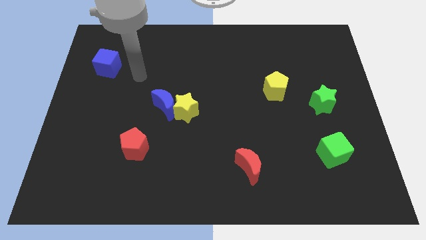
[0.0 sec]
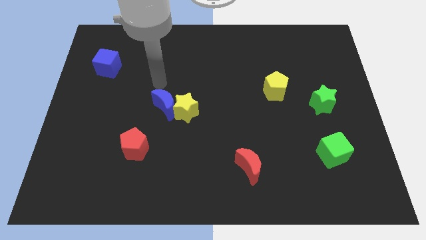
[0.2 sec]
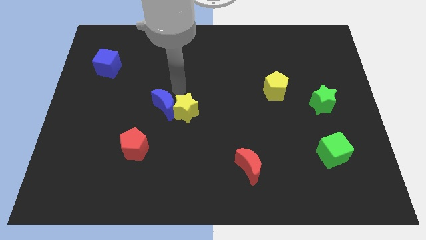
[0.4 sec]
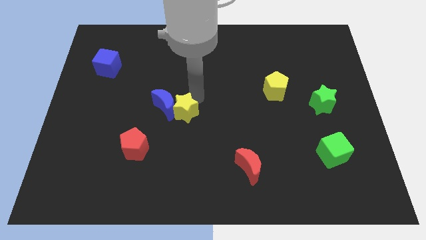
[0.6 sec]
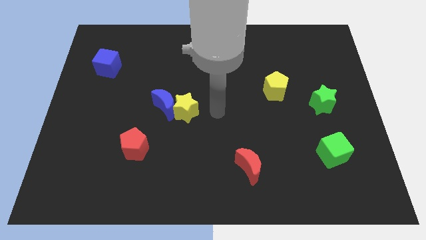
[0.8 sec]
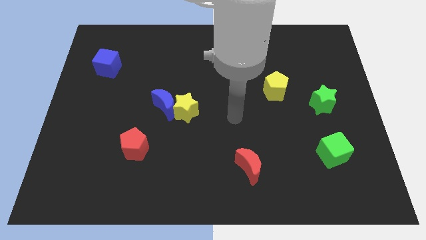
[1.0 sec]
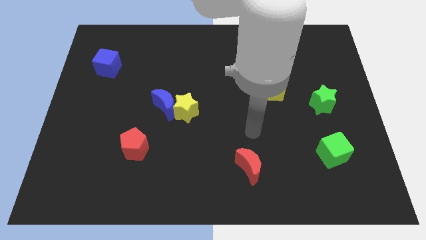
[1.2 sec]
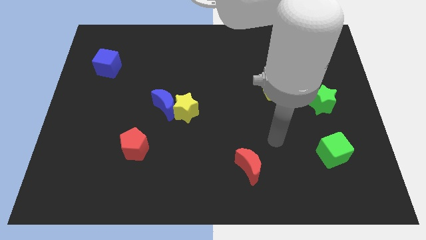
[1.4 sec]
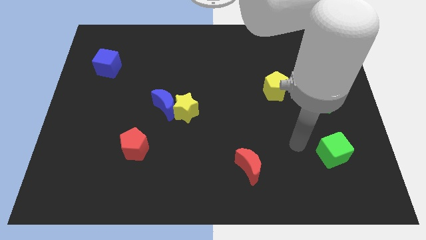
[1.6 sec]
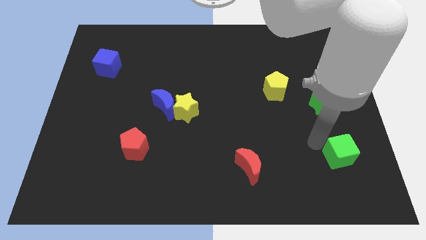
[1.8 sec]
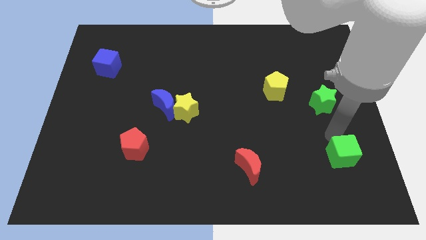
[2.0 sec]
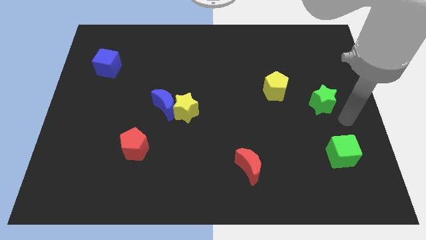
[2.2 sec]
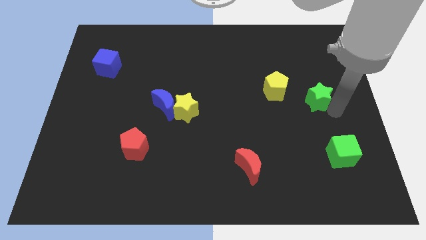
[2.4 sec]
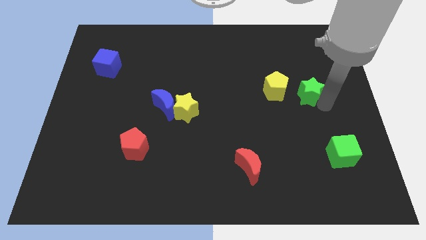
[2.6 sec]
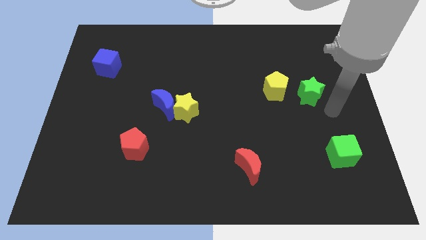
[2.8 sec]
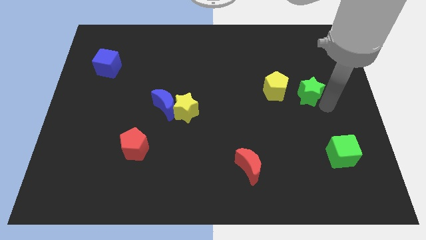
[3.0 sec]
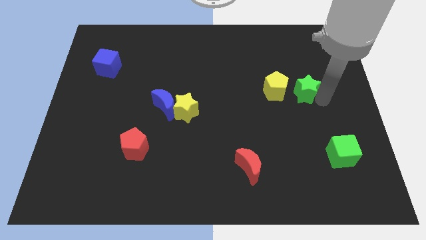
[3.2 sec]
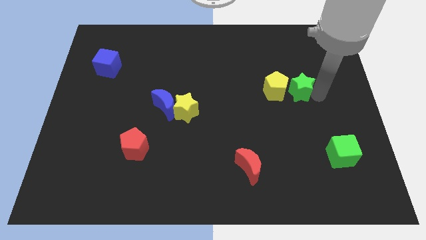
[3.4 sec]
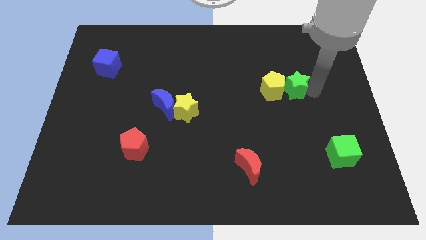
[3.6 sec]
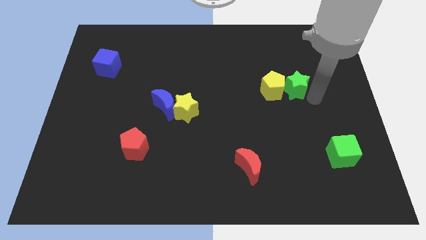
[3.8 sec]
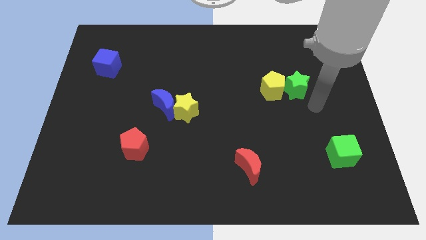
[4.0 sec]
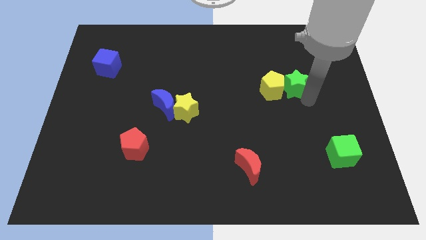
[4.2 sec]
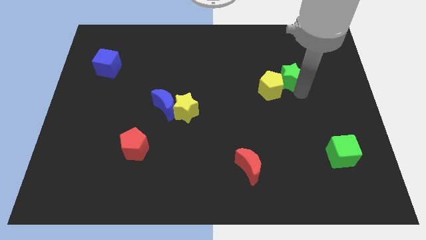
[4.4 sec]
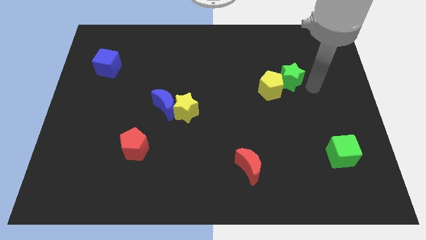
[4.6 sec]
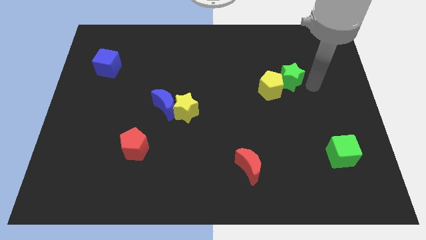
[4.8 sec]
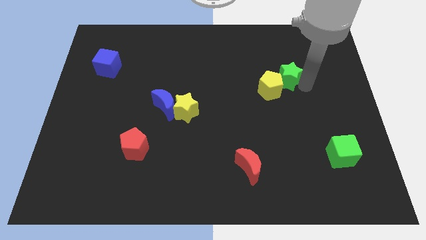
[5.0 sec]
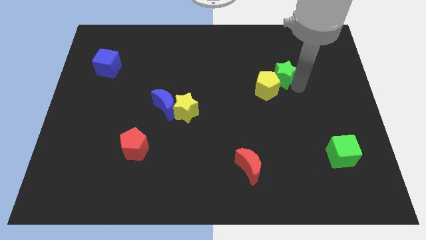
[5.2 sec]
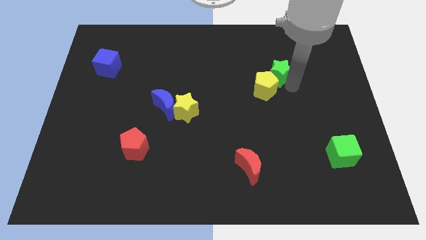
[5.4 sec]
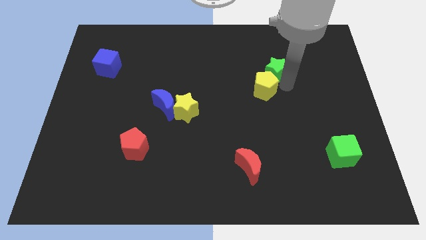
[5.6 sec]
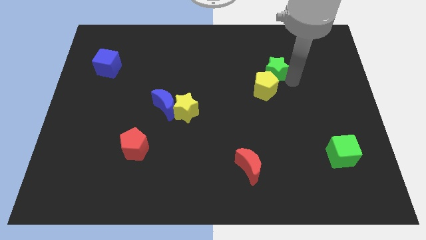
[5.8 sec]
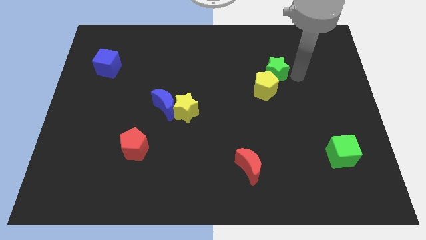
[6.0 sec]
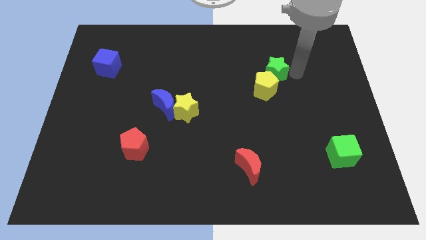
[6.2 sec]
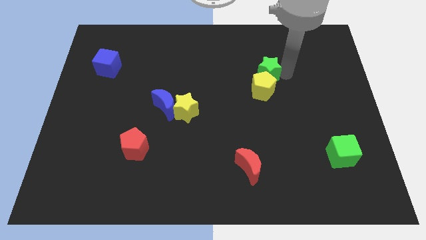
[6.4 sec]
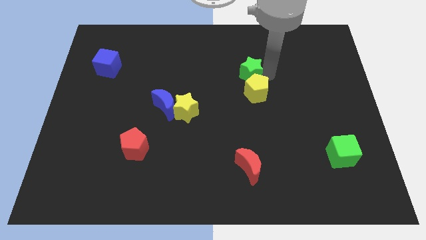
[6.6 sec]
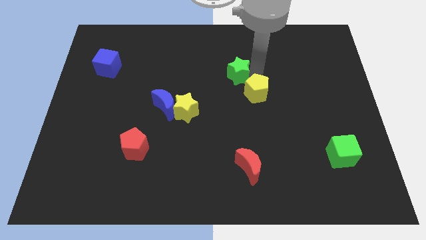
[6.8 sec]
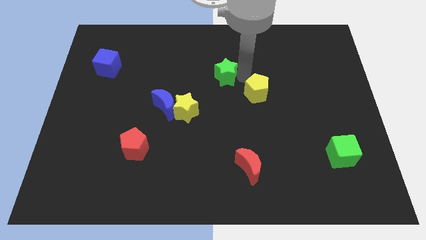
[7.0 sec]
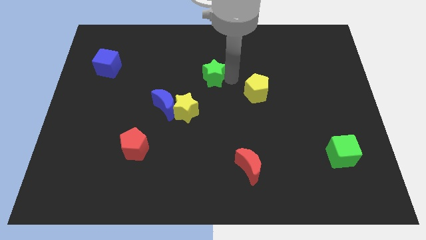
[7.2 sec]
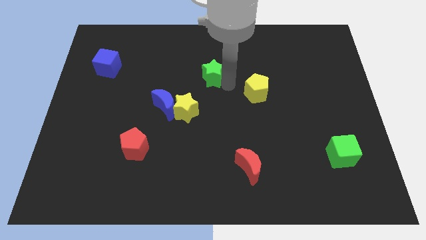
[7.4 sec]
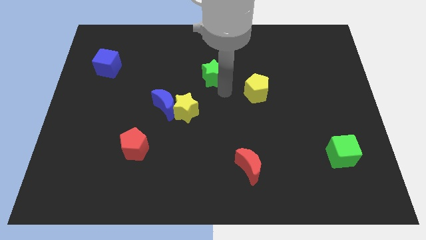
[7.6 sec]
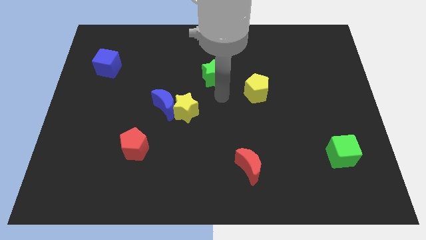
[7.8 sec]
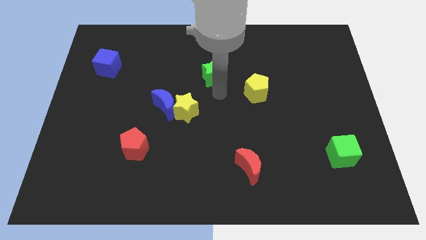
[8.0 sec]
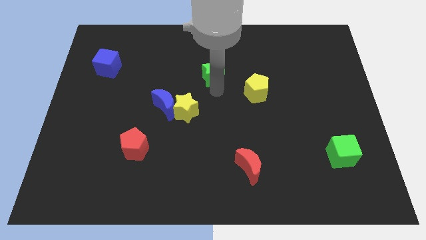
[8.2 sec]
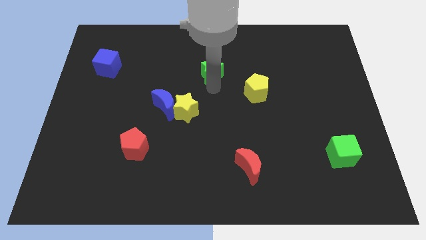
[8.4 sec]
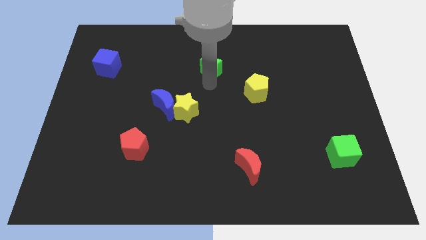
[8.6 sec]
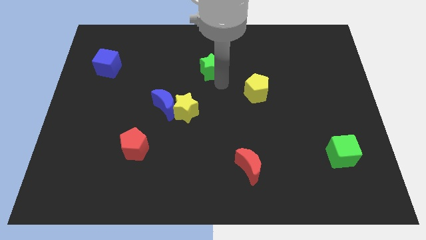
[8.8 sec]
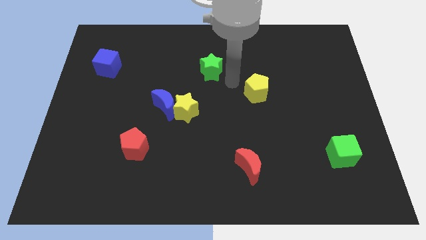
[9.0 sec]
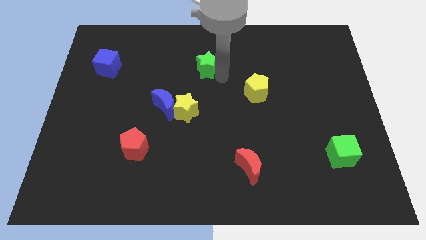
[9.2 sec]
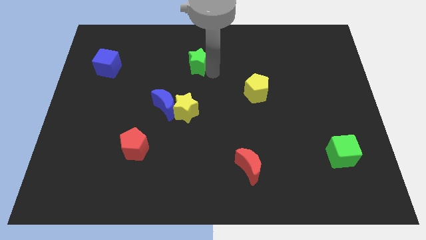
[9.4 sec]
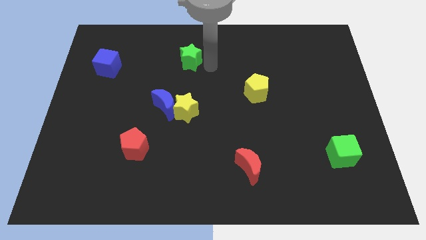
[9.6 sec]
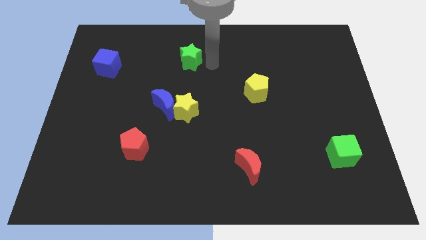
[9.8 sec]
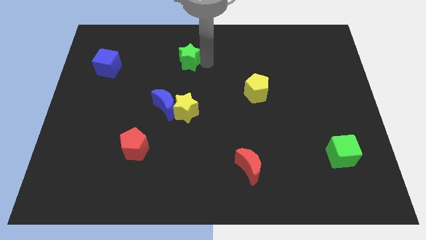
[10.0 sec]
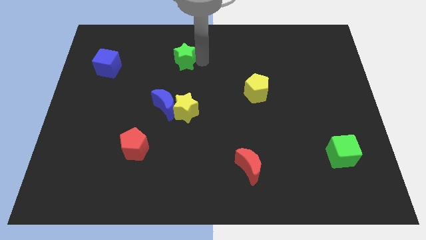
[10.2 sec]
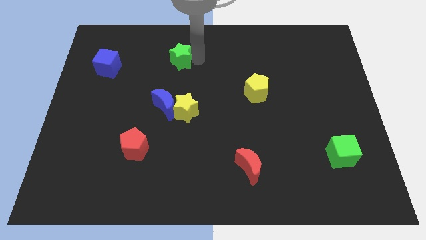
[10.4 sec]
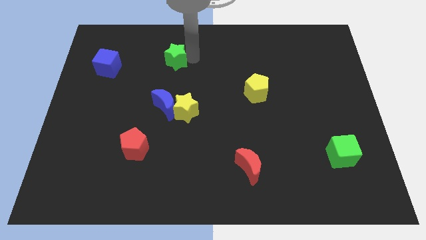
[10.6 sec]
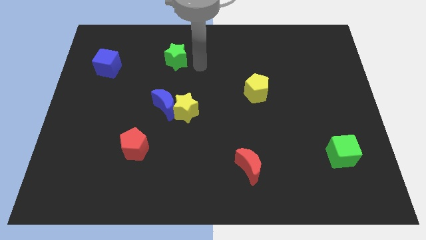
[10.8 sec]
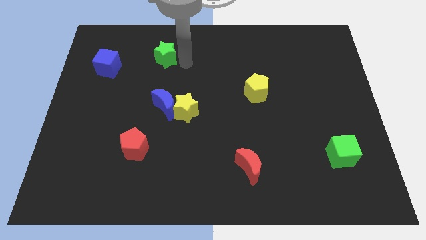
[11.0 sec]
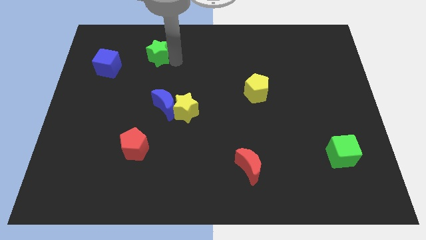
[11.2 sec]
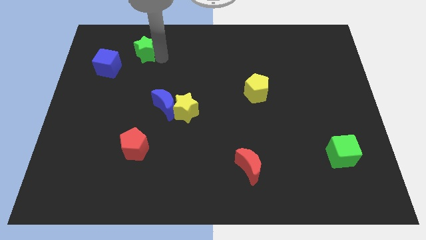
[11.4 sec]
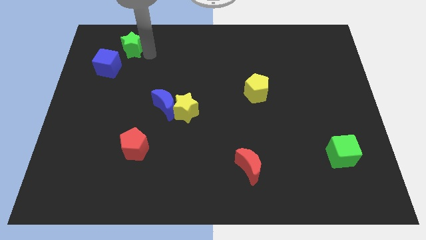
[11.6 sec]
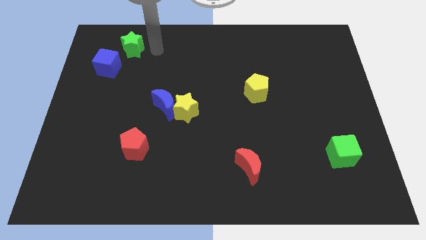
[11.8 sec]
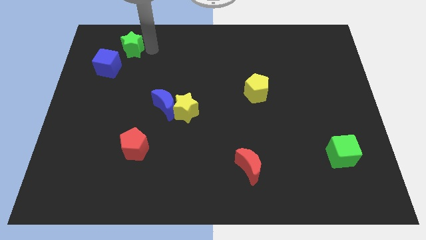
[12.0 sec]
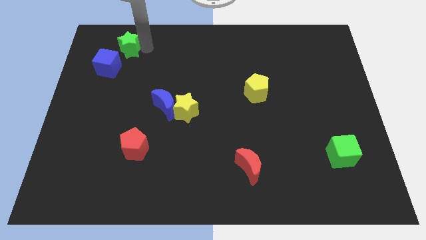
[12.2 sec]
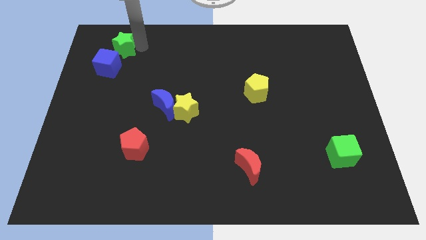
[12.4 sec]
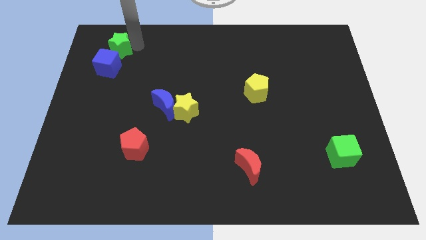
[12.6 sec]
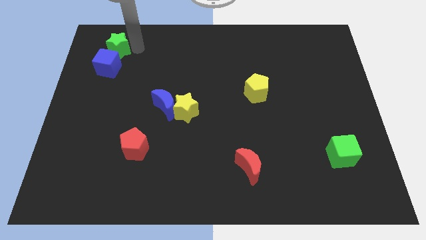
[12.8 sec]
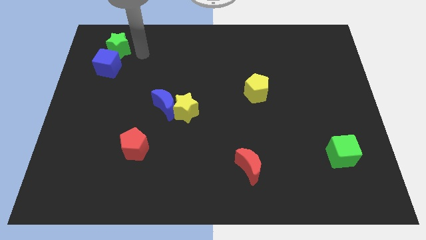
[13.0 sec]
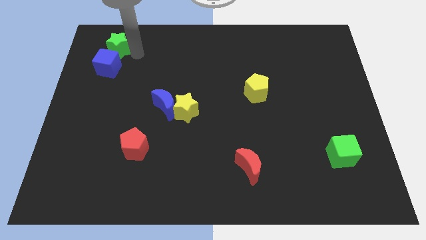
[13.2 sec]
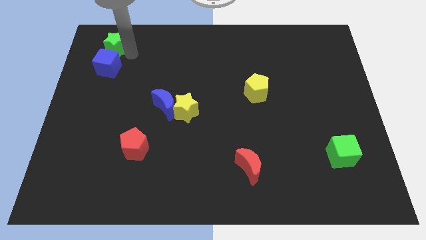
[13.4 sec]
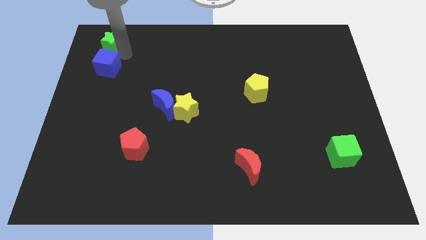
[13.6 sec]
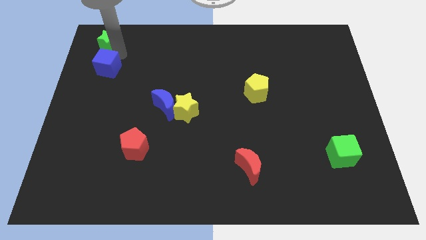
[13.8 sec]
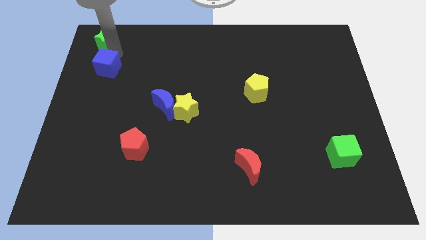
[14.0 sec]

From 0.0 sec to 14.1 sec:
put the green star to the upper left corner
